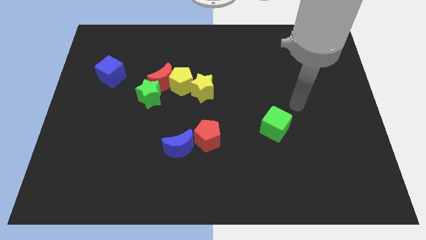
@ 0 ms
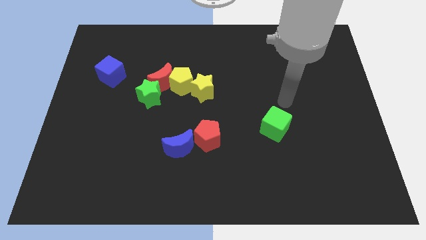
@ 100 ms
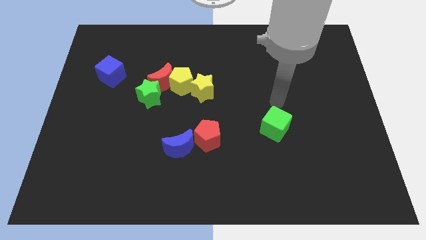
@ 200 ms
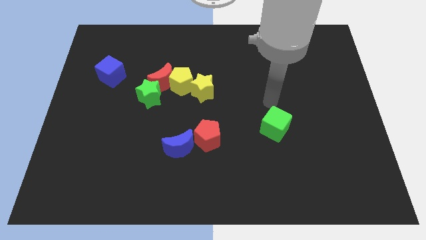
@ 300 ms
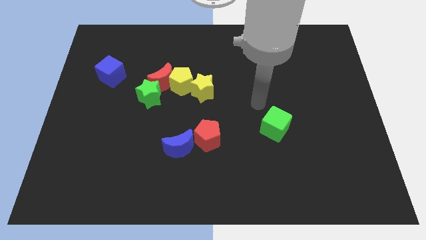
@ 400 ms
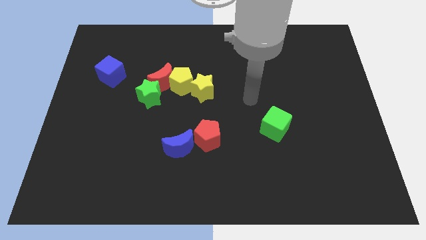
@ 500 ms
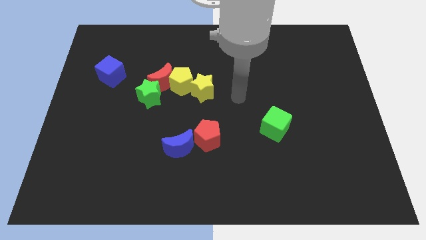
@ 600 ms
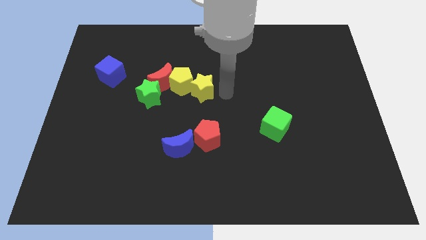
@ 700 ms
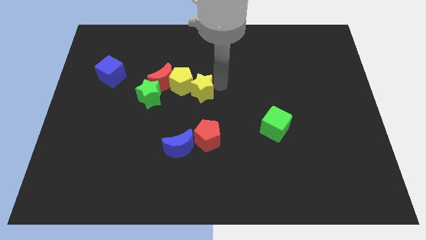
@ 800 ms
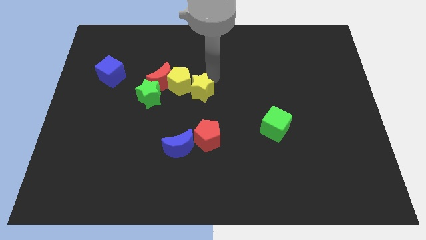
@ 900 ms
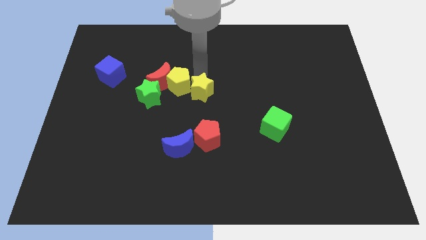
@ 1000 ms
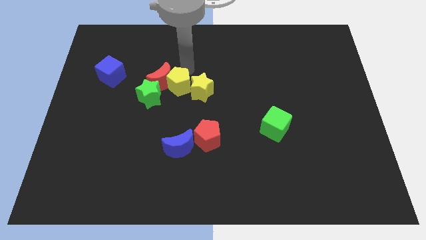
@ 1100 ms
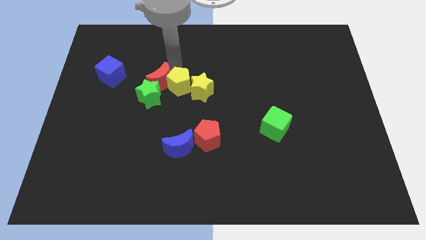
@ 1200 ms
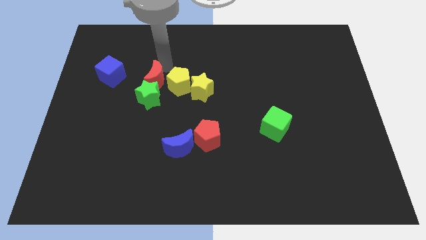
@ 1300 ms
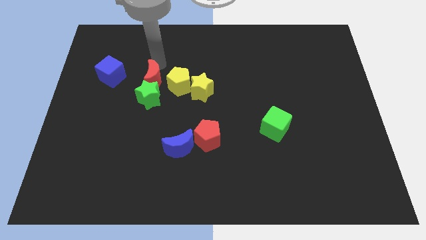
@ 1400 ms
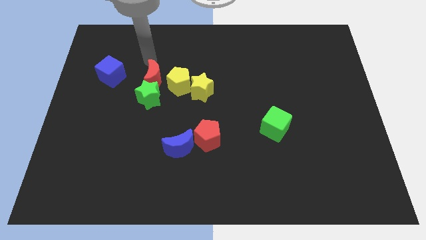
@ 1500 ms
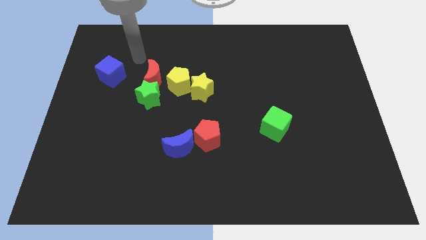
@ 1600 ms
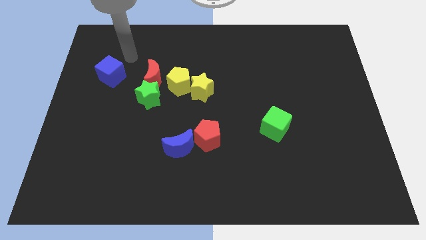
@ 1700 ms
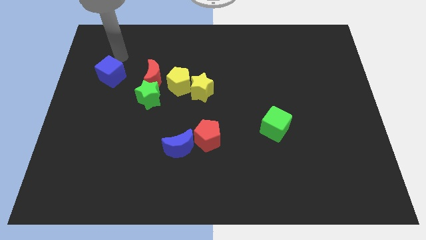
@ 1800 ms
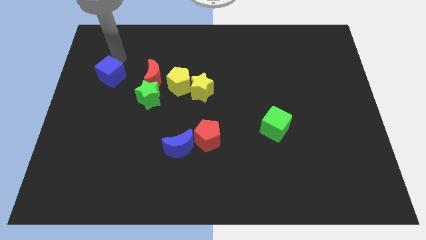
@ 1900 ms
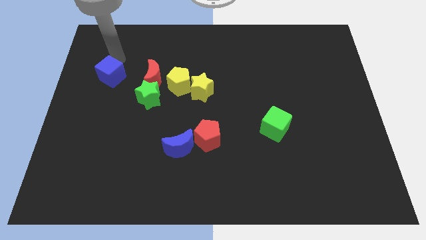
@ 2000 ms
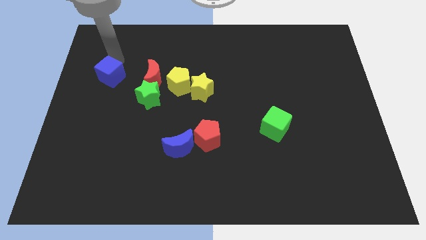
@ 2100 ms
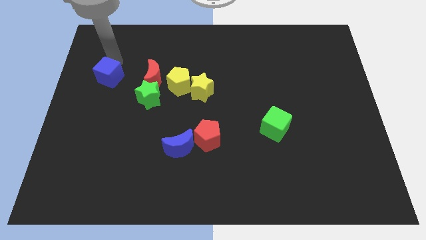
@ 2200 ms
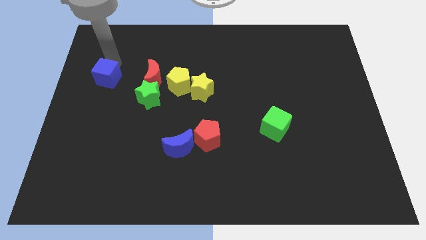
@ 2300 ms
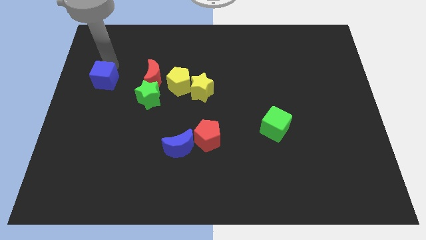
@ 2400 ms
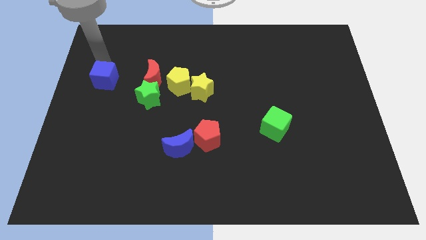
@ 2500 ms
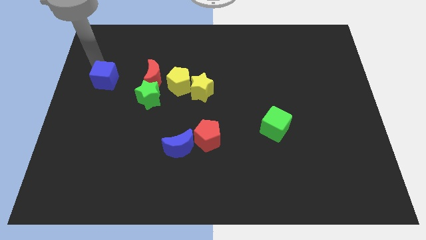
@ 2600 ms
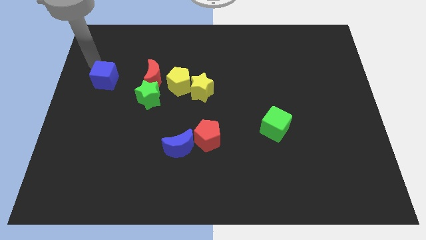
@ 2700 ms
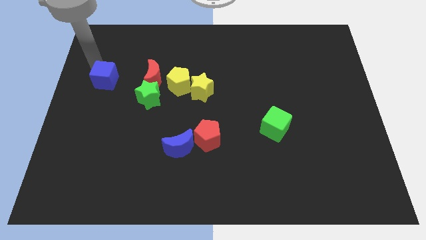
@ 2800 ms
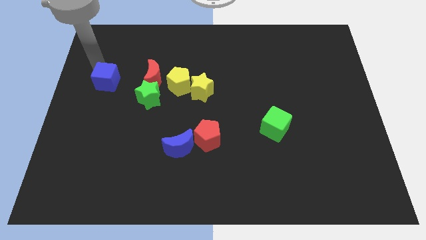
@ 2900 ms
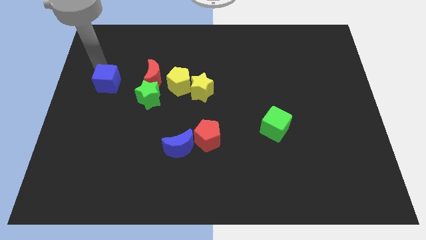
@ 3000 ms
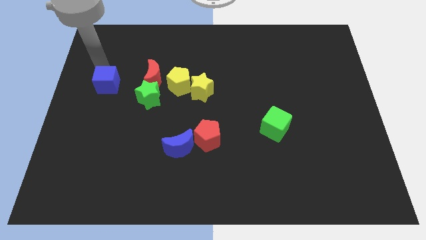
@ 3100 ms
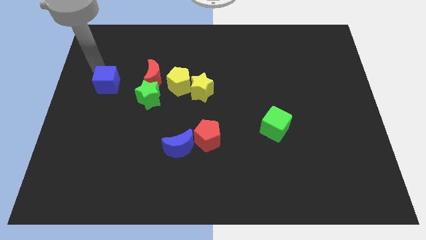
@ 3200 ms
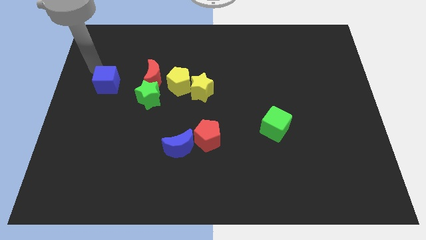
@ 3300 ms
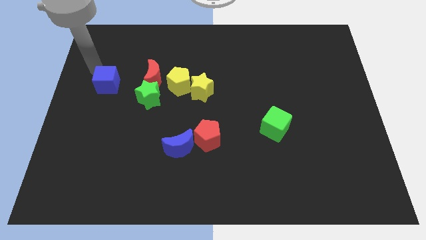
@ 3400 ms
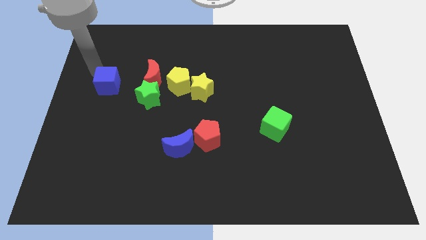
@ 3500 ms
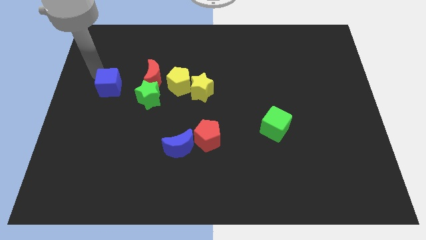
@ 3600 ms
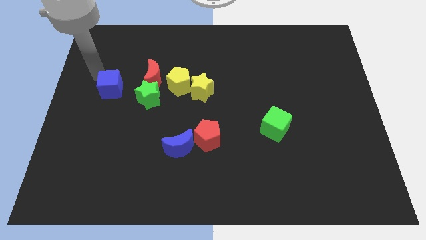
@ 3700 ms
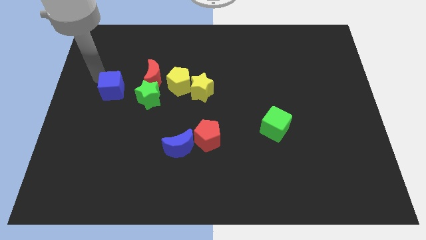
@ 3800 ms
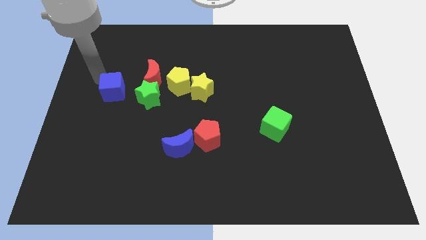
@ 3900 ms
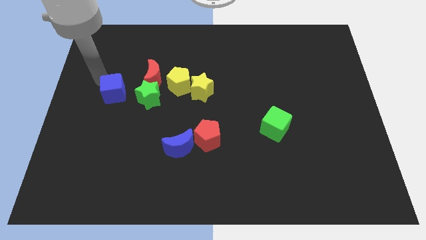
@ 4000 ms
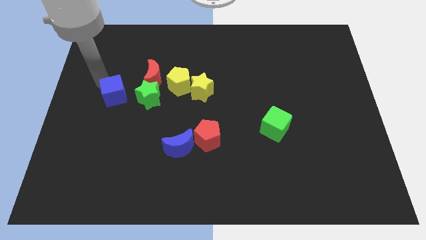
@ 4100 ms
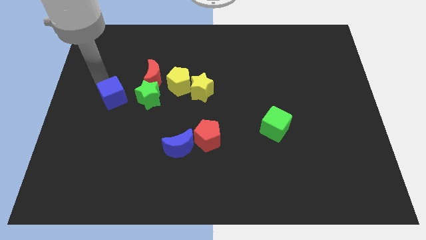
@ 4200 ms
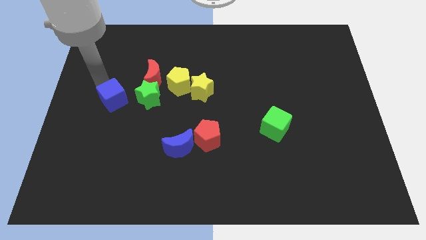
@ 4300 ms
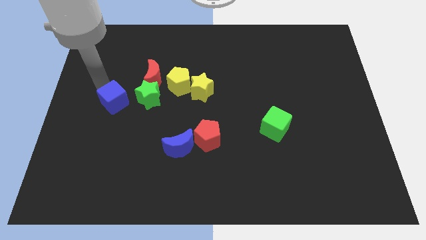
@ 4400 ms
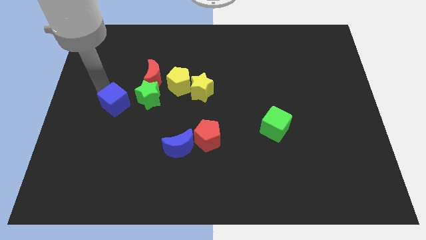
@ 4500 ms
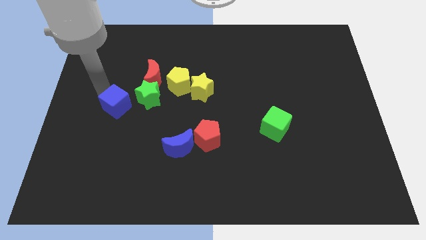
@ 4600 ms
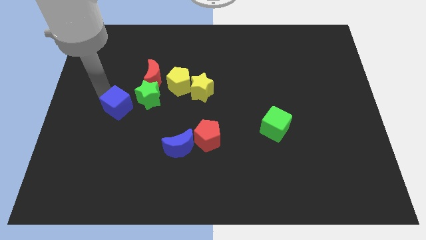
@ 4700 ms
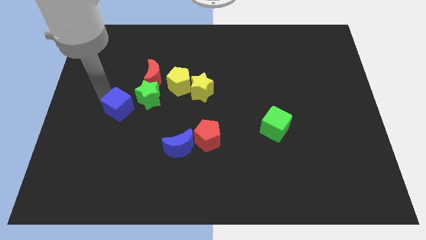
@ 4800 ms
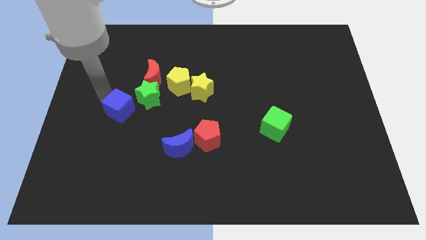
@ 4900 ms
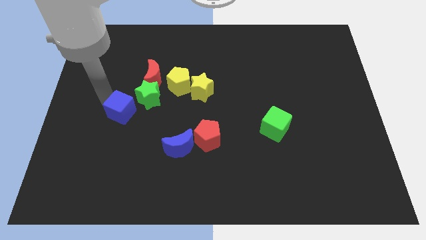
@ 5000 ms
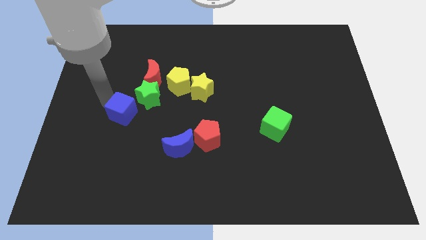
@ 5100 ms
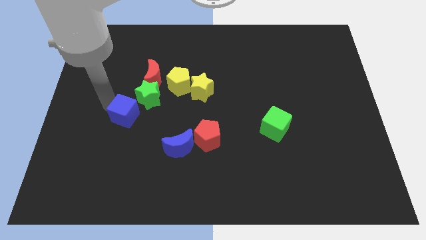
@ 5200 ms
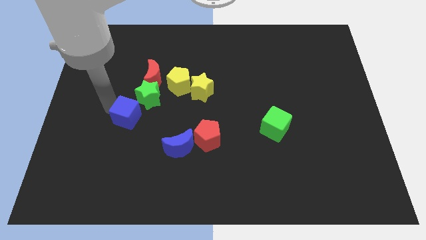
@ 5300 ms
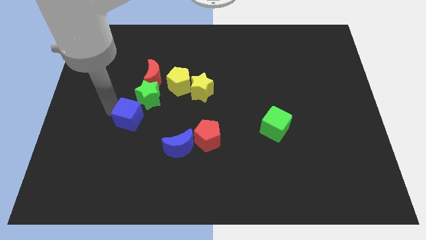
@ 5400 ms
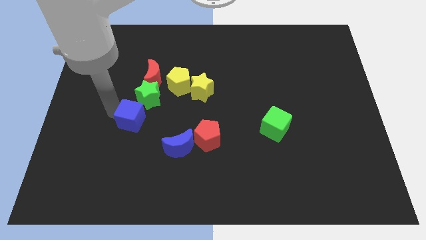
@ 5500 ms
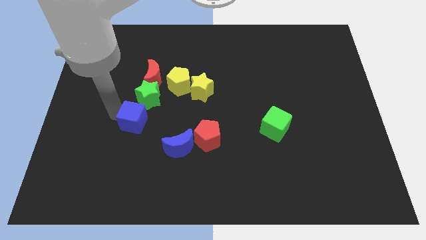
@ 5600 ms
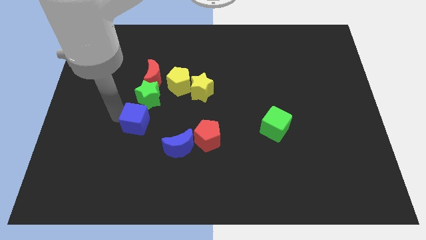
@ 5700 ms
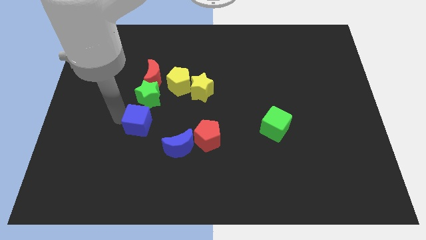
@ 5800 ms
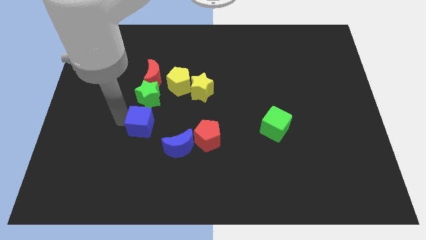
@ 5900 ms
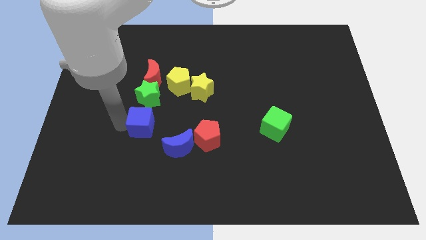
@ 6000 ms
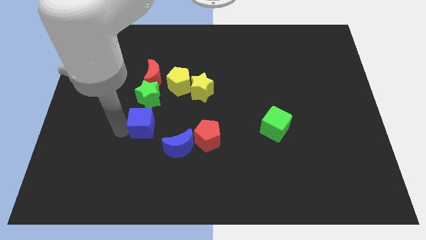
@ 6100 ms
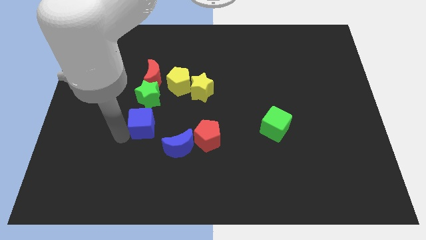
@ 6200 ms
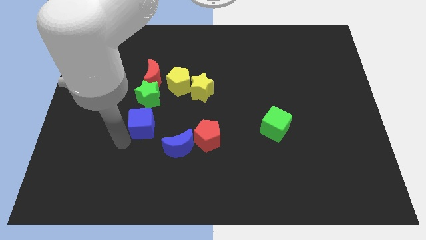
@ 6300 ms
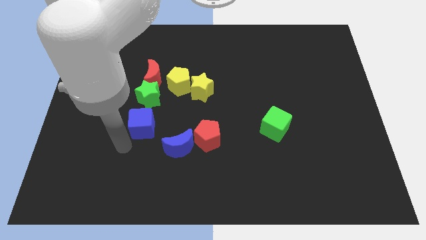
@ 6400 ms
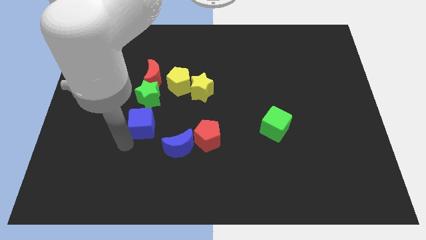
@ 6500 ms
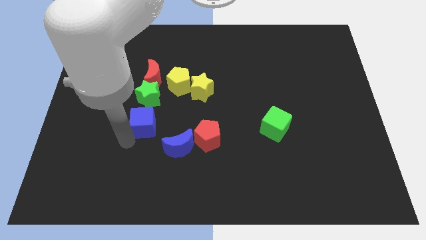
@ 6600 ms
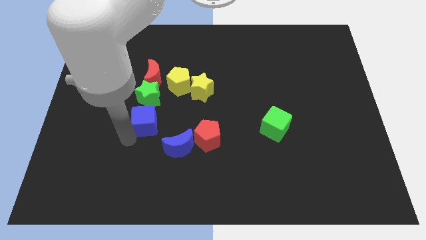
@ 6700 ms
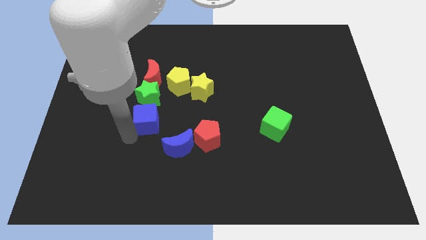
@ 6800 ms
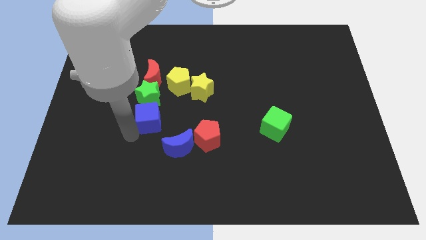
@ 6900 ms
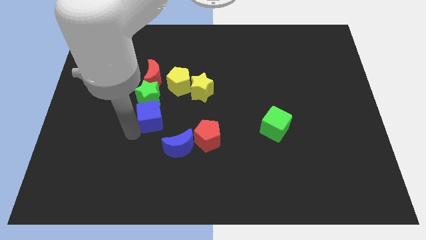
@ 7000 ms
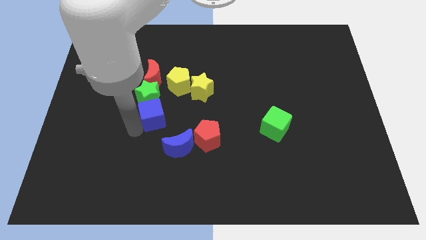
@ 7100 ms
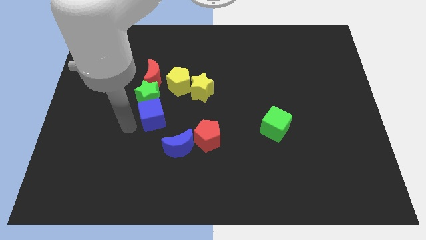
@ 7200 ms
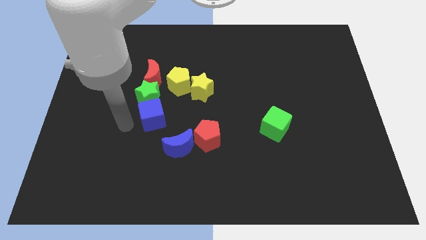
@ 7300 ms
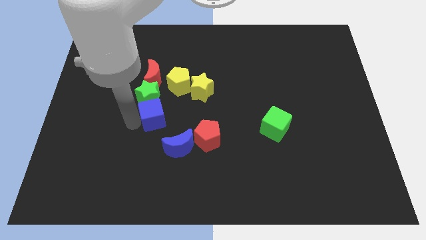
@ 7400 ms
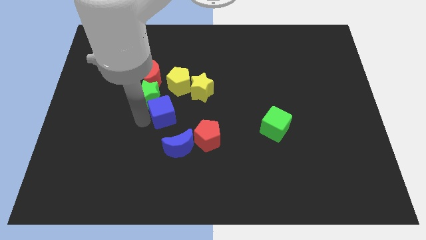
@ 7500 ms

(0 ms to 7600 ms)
put the blue cube to the middle of the board
